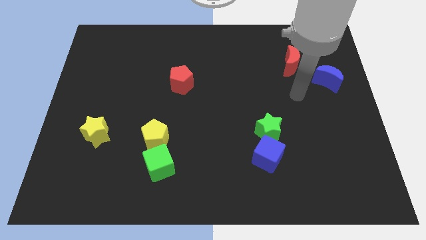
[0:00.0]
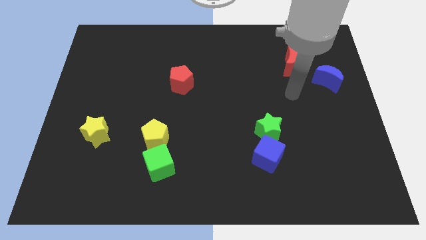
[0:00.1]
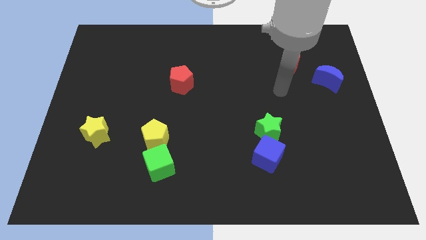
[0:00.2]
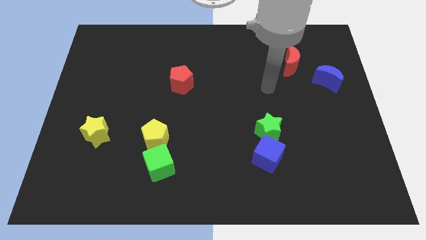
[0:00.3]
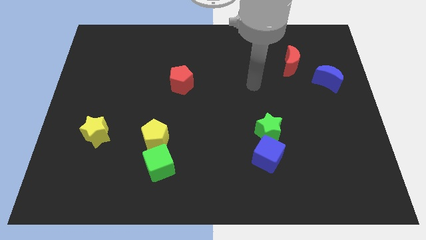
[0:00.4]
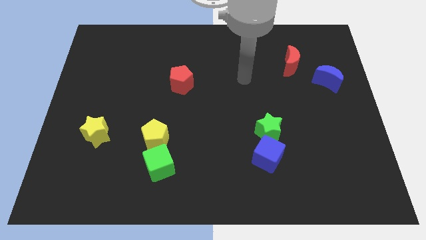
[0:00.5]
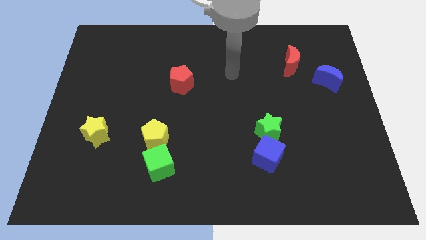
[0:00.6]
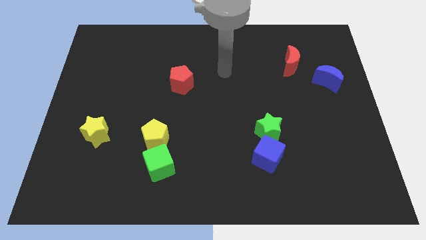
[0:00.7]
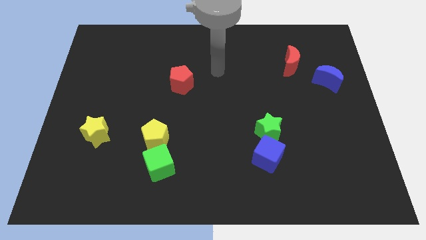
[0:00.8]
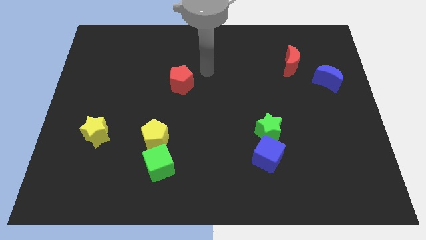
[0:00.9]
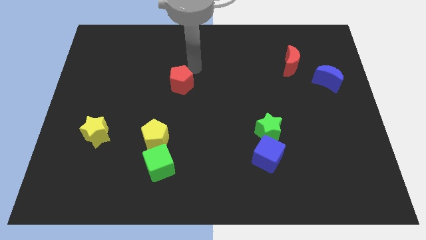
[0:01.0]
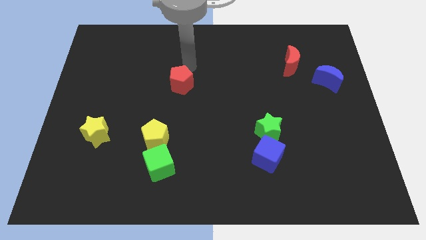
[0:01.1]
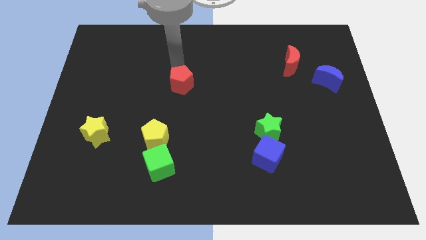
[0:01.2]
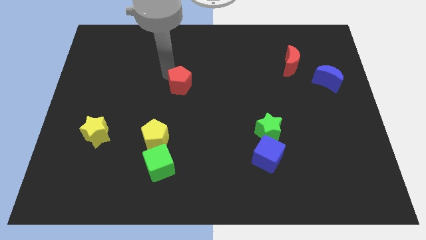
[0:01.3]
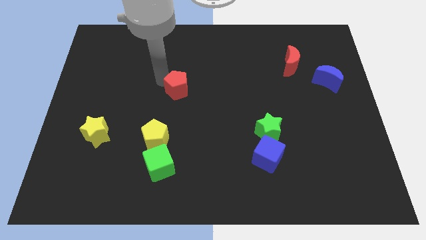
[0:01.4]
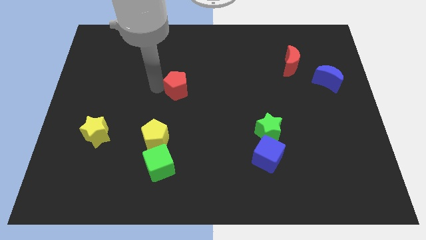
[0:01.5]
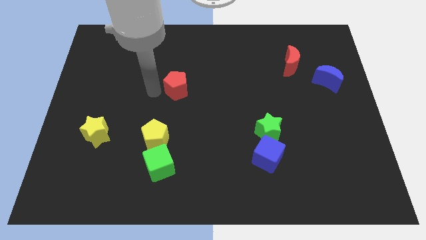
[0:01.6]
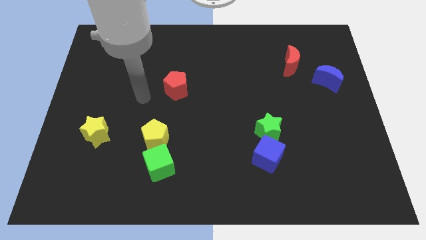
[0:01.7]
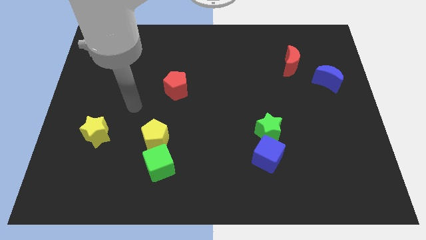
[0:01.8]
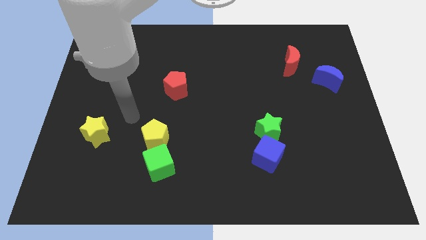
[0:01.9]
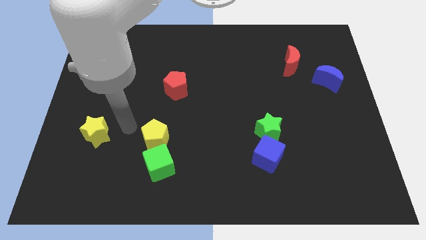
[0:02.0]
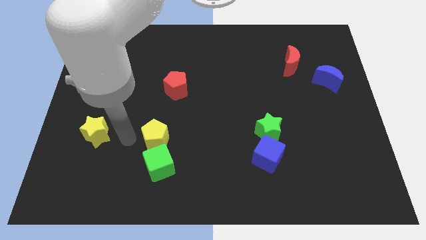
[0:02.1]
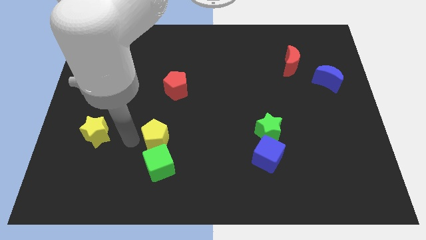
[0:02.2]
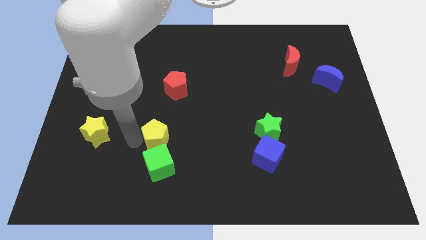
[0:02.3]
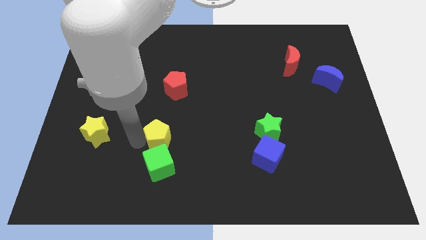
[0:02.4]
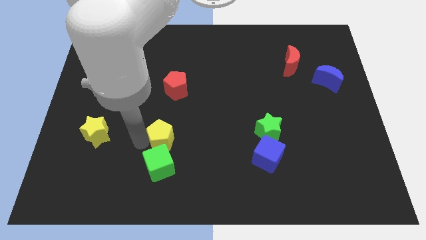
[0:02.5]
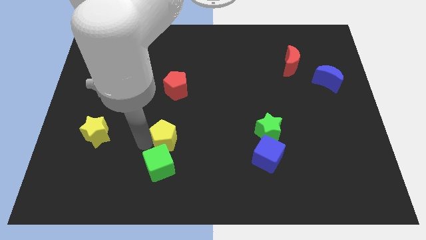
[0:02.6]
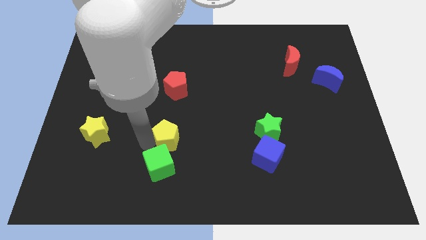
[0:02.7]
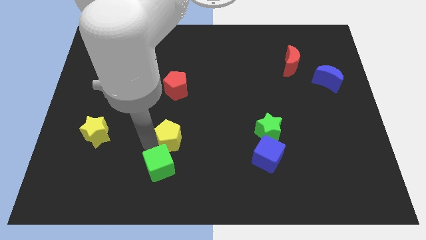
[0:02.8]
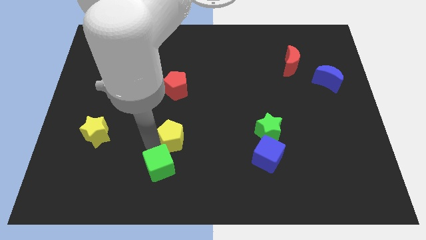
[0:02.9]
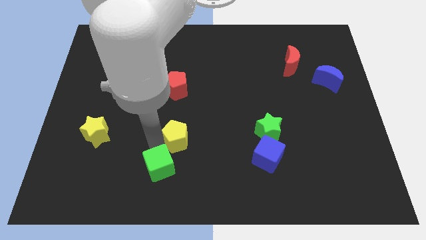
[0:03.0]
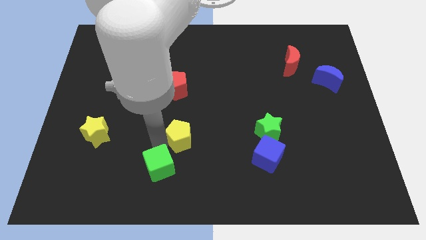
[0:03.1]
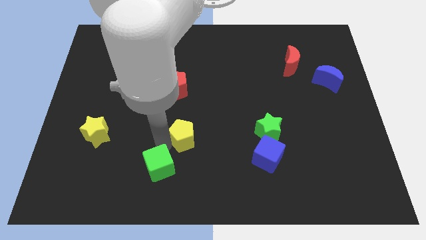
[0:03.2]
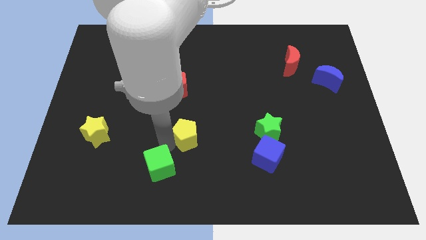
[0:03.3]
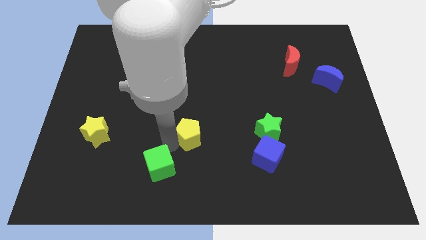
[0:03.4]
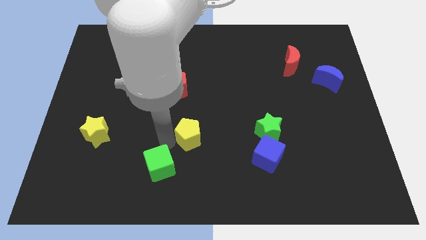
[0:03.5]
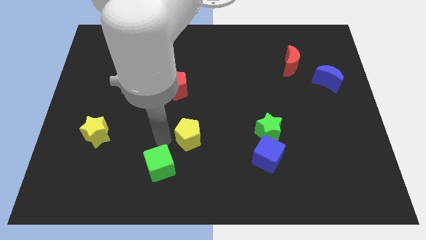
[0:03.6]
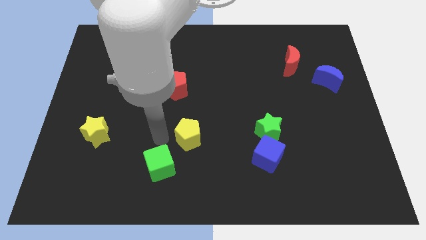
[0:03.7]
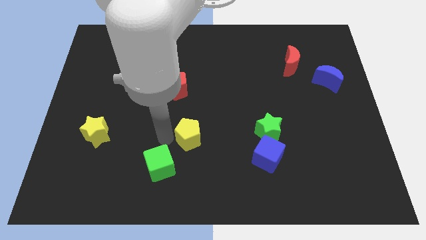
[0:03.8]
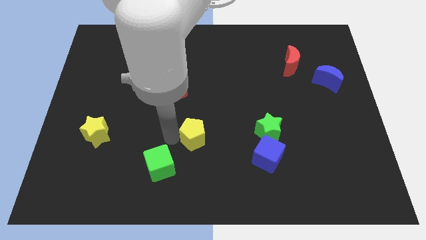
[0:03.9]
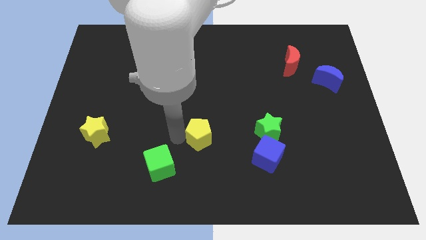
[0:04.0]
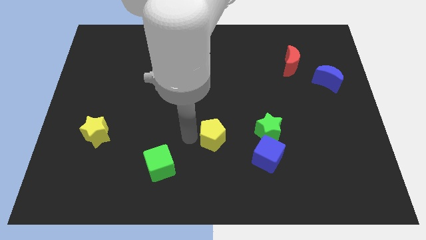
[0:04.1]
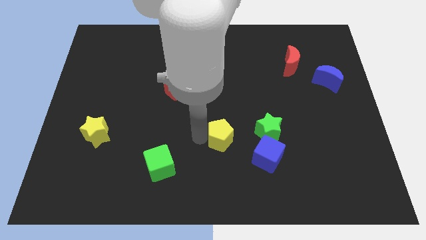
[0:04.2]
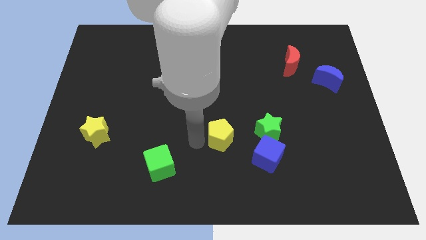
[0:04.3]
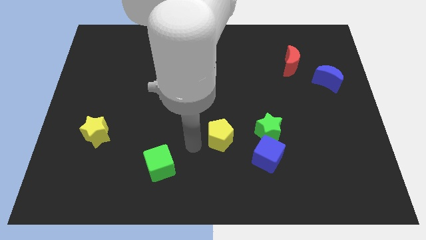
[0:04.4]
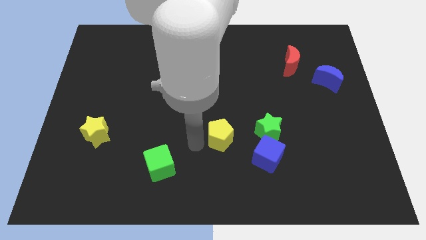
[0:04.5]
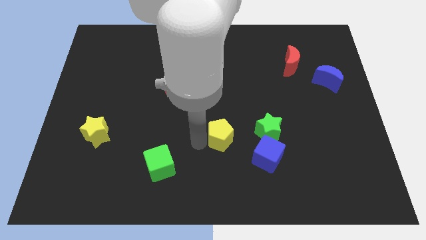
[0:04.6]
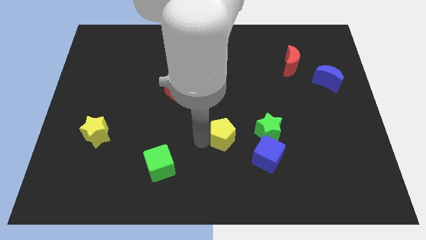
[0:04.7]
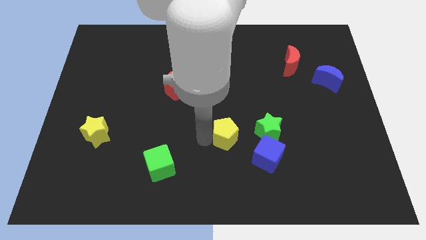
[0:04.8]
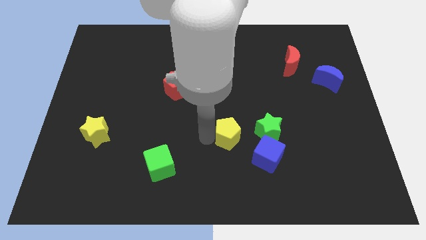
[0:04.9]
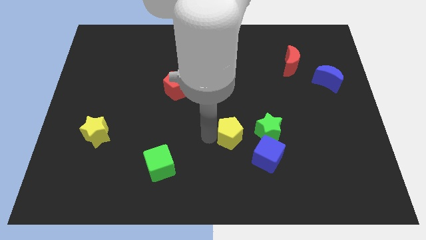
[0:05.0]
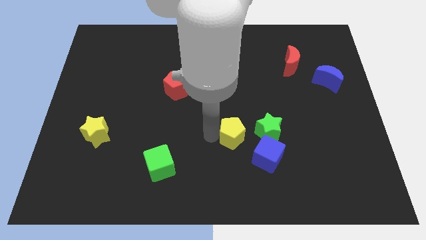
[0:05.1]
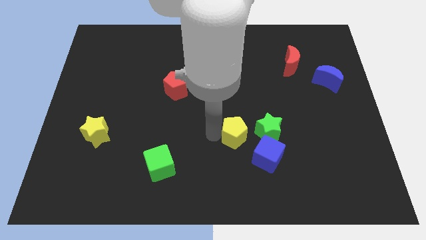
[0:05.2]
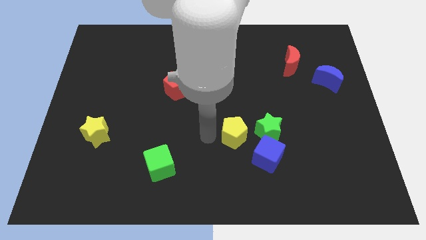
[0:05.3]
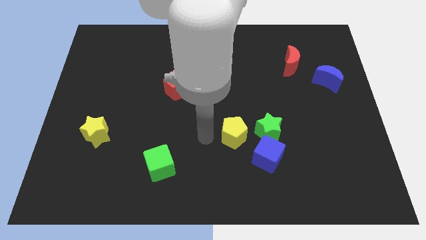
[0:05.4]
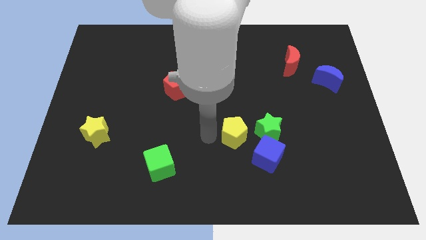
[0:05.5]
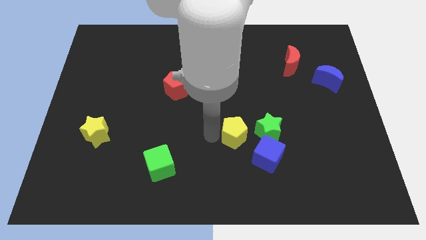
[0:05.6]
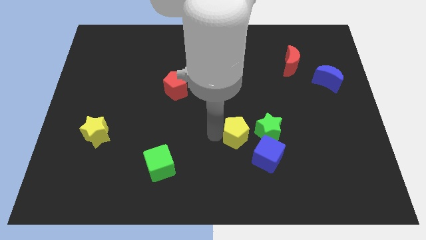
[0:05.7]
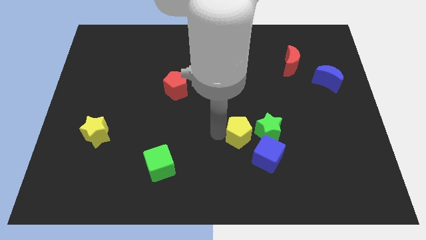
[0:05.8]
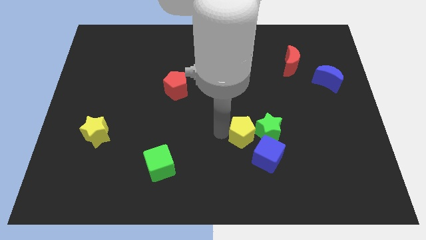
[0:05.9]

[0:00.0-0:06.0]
move the yellow pentagon to the green star

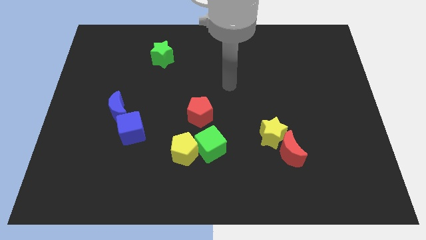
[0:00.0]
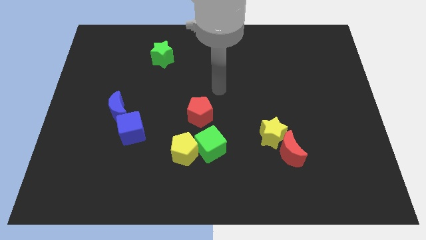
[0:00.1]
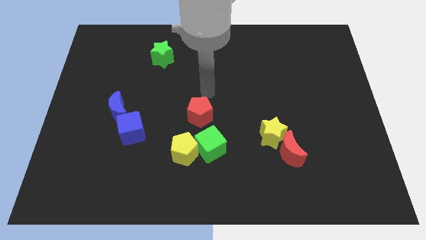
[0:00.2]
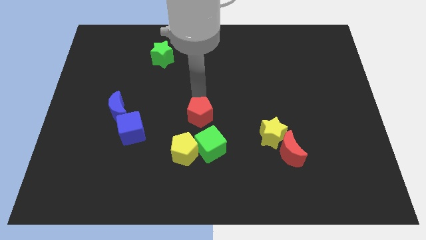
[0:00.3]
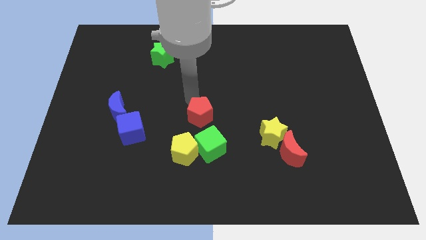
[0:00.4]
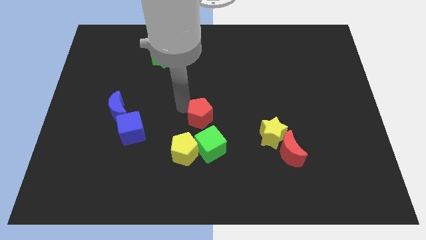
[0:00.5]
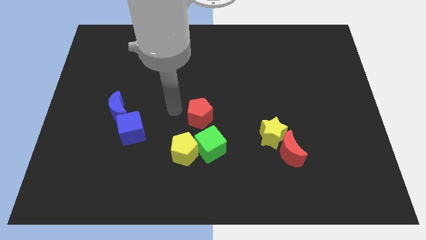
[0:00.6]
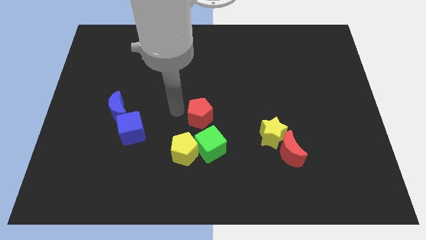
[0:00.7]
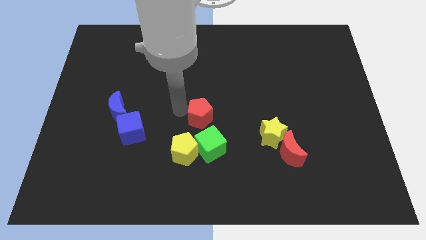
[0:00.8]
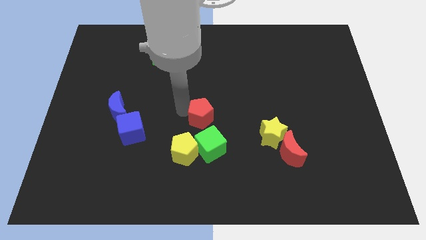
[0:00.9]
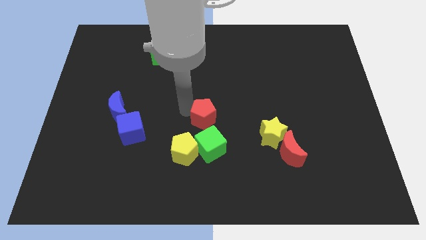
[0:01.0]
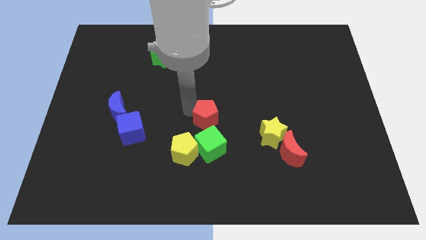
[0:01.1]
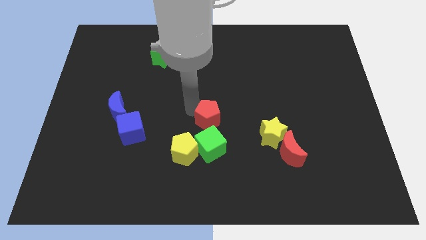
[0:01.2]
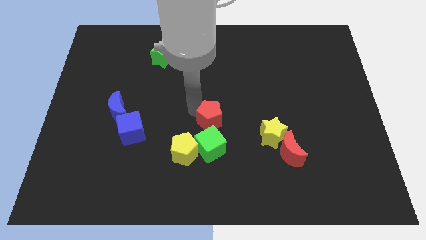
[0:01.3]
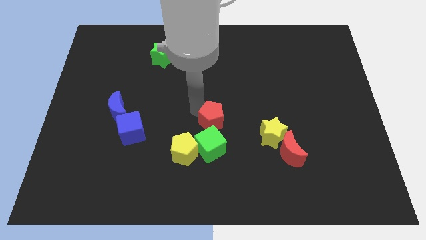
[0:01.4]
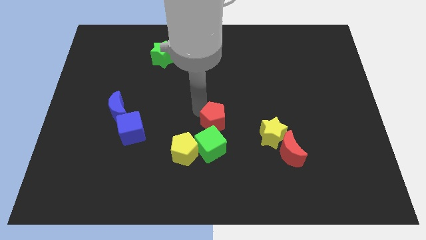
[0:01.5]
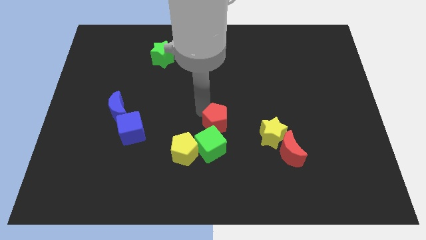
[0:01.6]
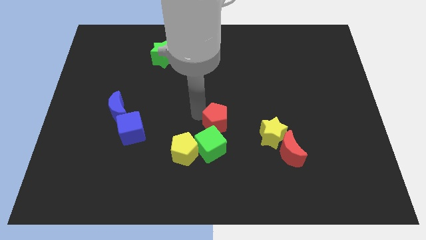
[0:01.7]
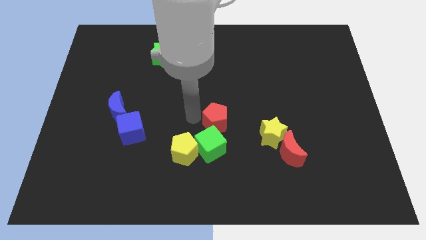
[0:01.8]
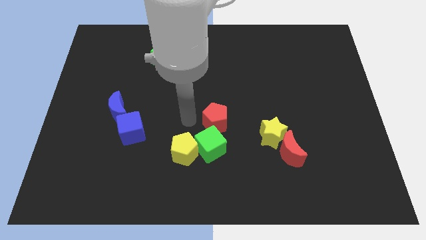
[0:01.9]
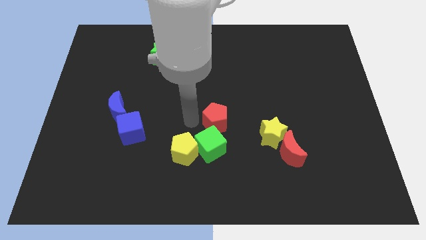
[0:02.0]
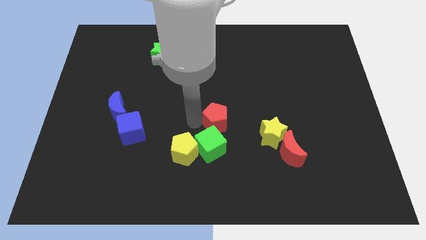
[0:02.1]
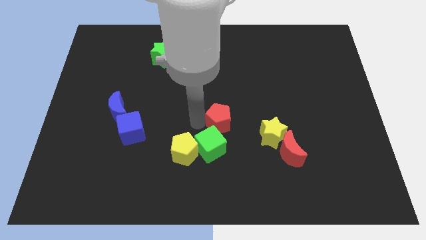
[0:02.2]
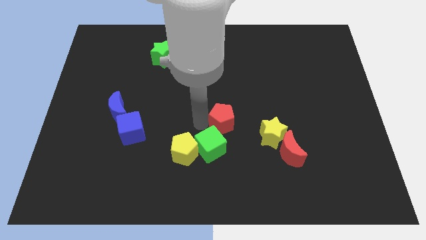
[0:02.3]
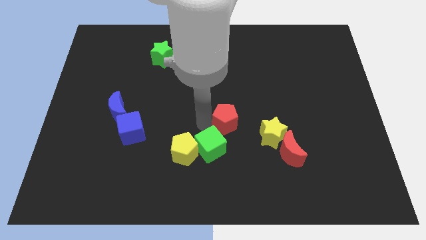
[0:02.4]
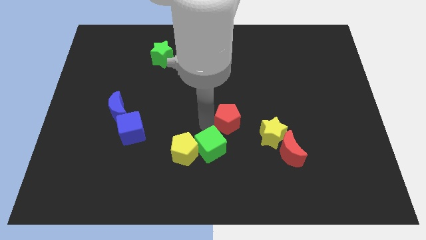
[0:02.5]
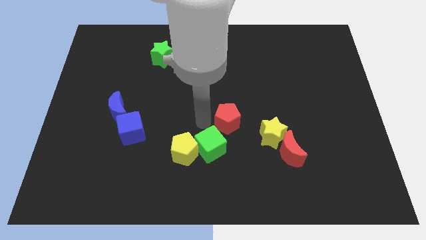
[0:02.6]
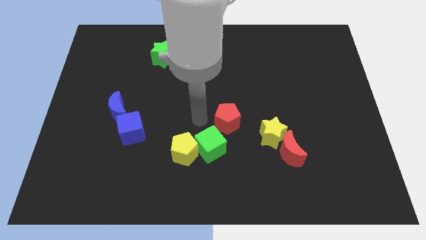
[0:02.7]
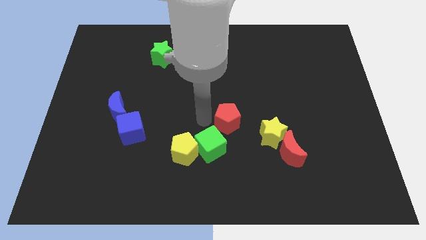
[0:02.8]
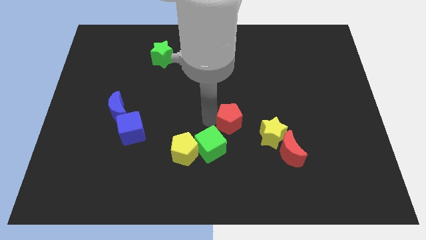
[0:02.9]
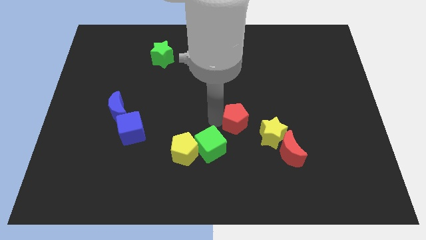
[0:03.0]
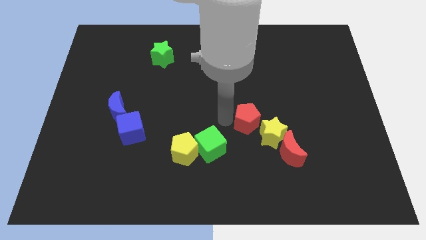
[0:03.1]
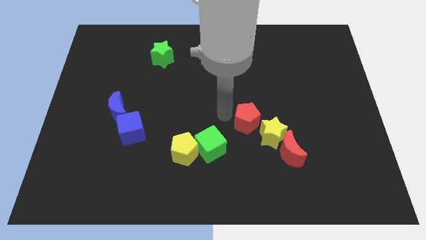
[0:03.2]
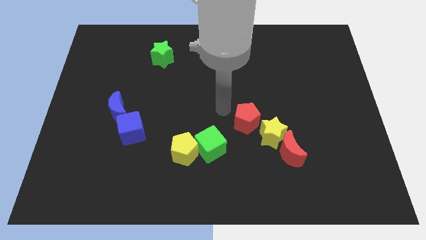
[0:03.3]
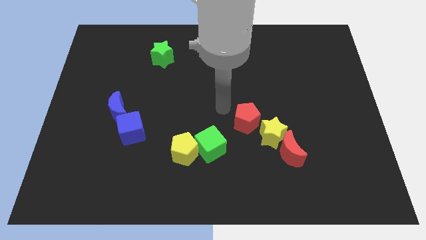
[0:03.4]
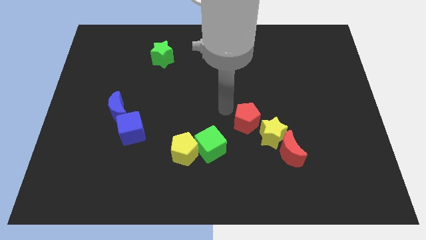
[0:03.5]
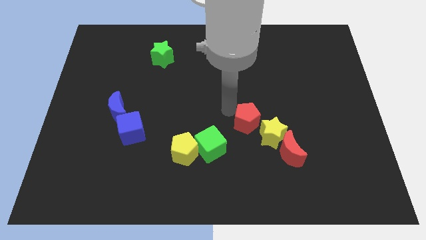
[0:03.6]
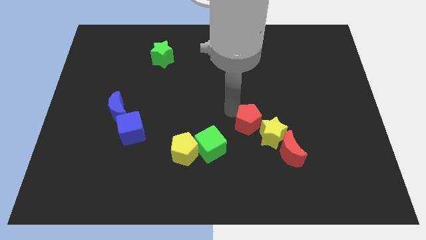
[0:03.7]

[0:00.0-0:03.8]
push the red pentagon next to the yellow star
